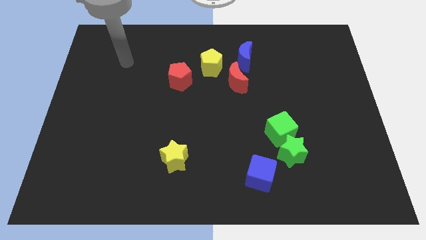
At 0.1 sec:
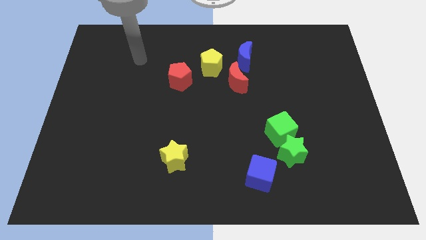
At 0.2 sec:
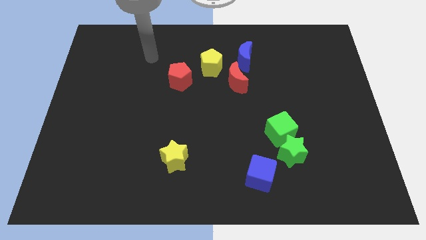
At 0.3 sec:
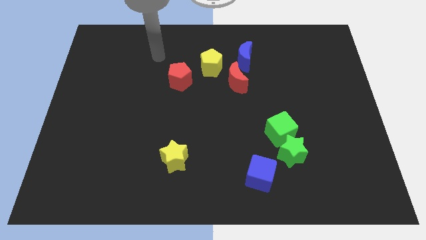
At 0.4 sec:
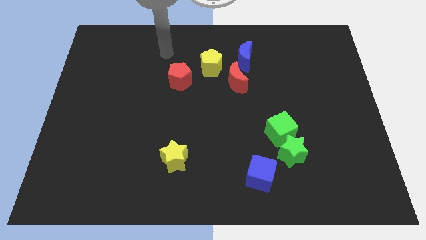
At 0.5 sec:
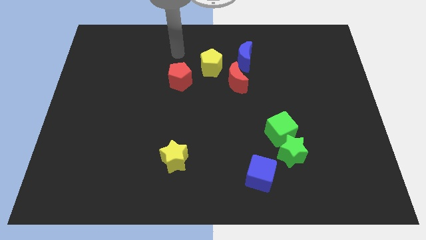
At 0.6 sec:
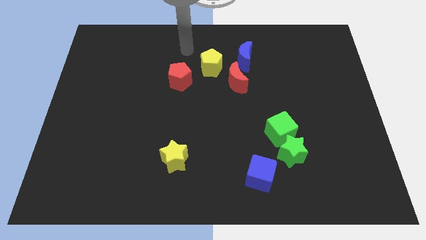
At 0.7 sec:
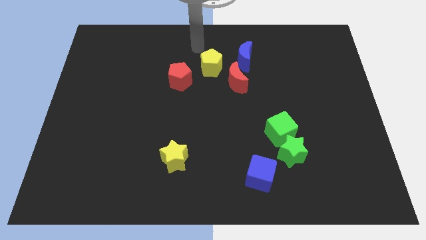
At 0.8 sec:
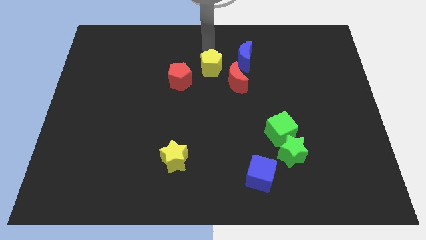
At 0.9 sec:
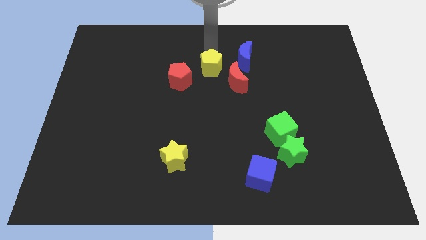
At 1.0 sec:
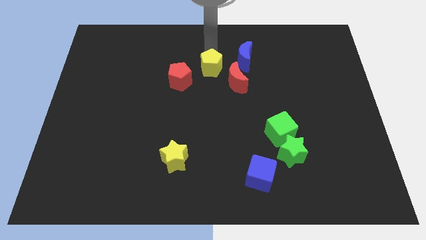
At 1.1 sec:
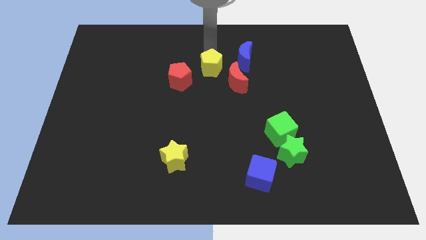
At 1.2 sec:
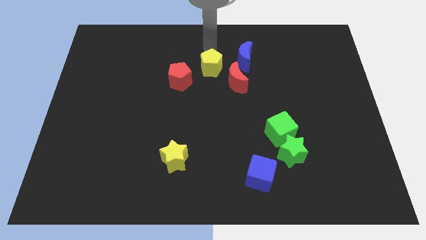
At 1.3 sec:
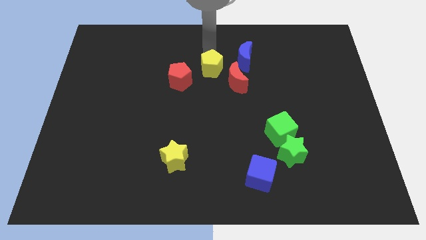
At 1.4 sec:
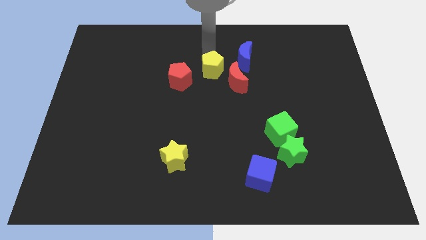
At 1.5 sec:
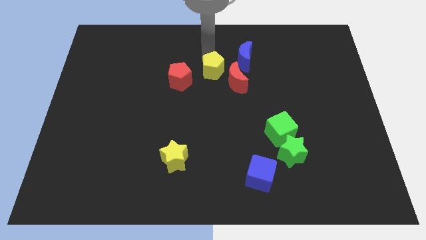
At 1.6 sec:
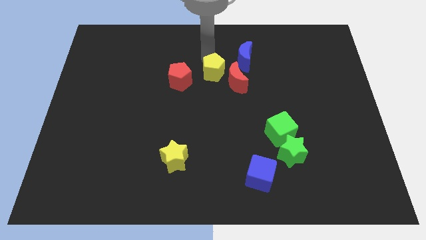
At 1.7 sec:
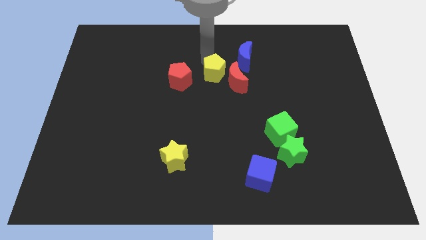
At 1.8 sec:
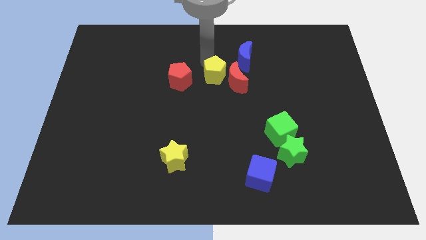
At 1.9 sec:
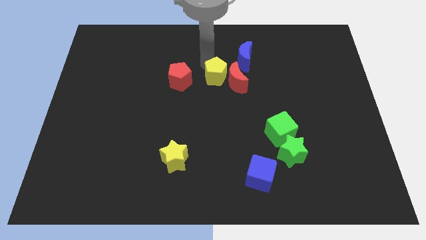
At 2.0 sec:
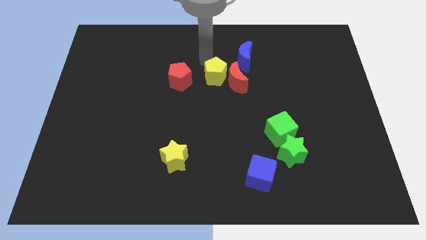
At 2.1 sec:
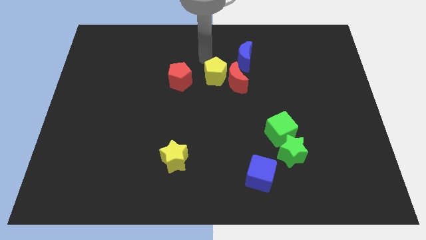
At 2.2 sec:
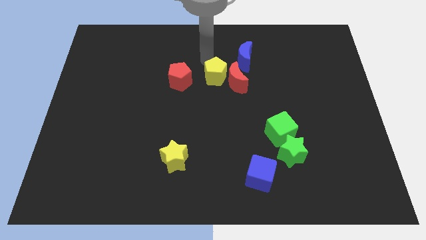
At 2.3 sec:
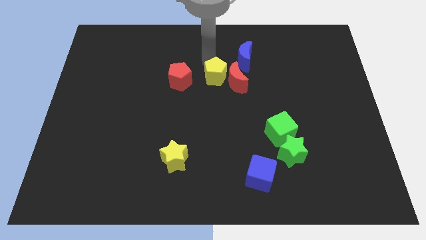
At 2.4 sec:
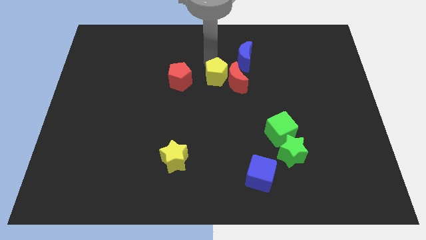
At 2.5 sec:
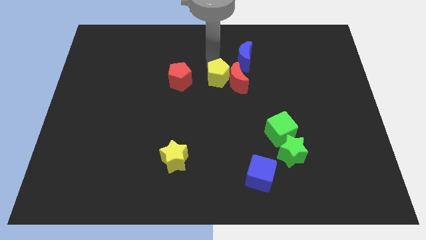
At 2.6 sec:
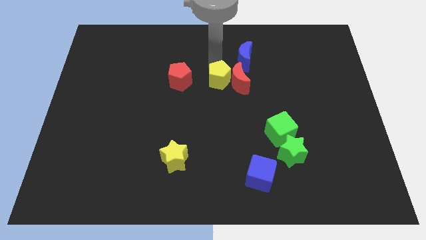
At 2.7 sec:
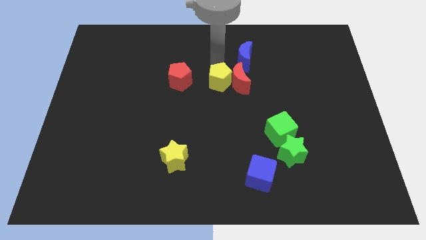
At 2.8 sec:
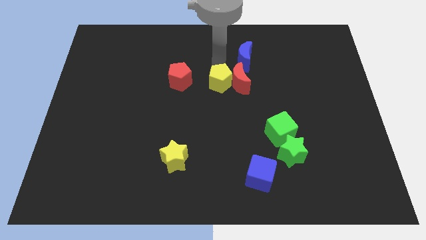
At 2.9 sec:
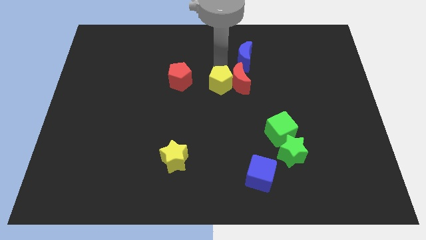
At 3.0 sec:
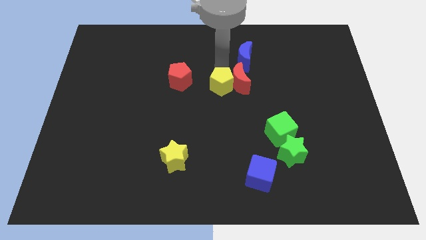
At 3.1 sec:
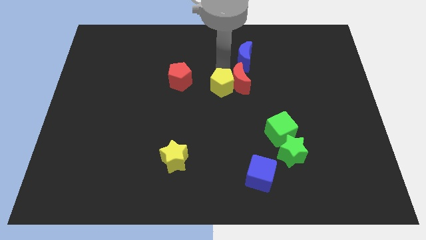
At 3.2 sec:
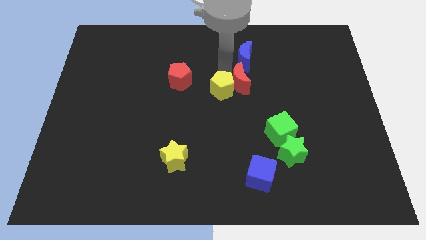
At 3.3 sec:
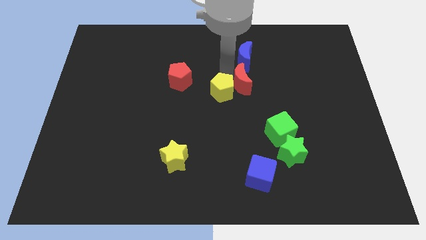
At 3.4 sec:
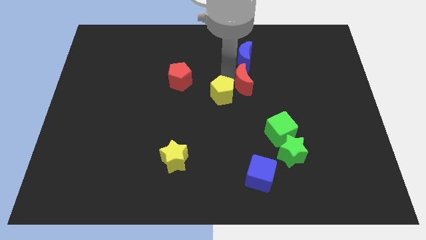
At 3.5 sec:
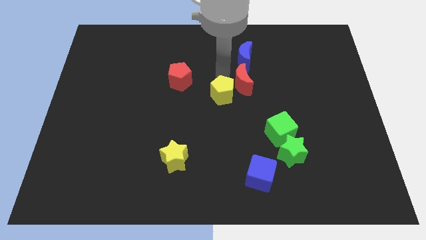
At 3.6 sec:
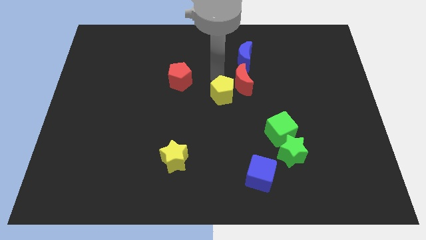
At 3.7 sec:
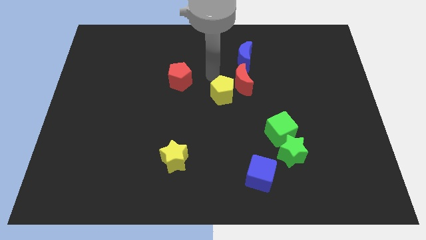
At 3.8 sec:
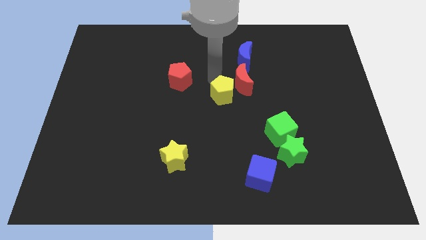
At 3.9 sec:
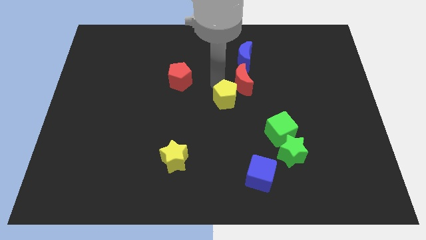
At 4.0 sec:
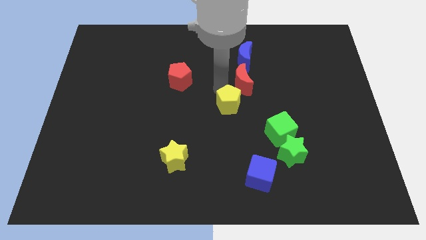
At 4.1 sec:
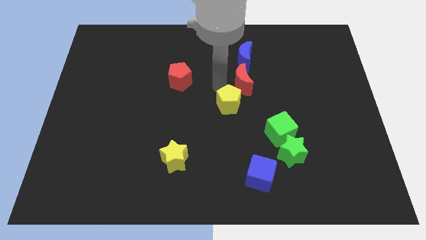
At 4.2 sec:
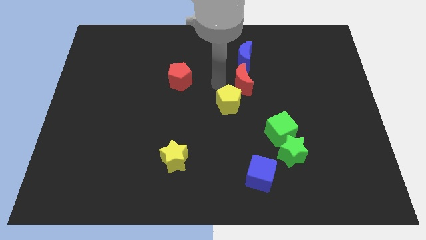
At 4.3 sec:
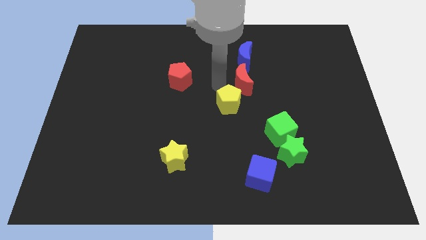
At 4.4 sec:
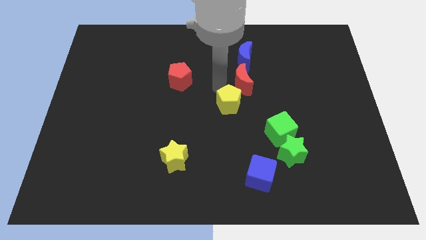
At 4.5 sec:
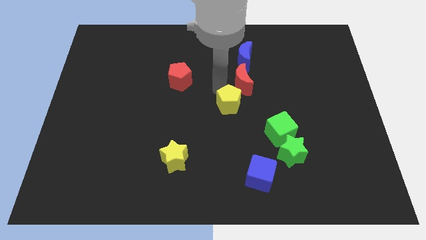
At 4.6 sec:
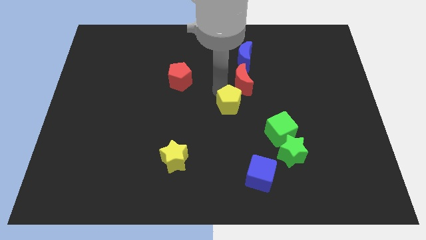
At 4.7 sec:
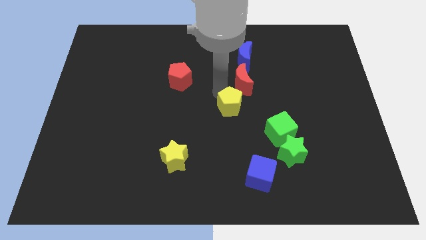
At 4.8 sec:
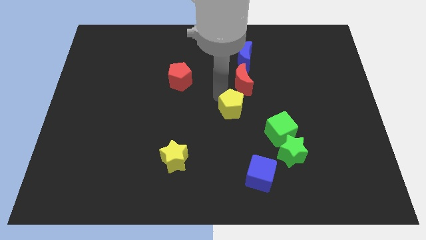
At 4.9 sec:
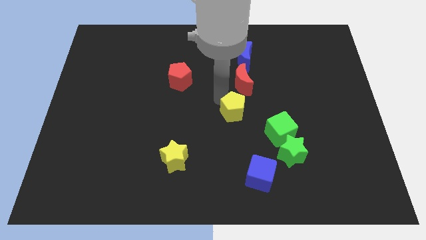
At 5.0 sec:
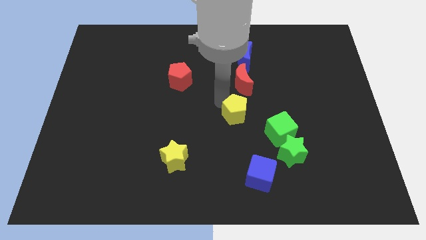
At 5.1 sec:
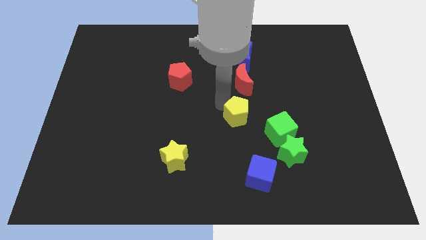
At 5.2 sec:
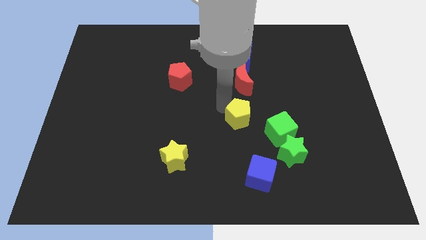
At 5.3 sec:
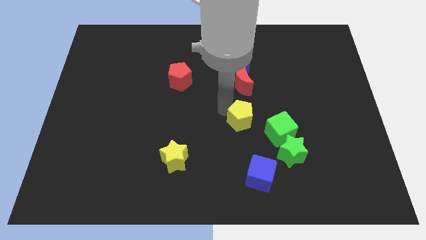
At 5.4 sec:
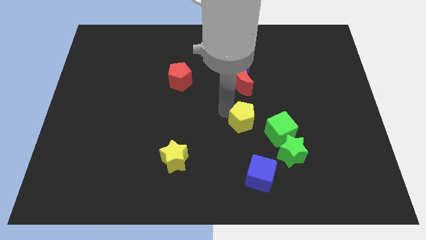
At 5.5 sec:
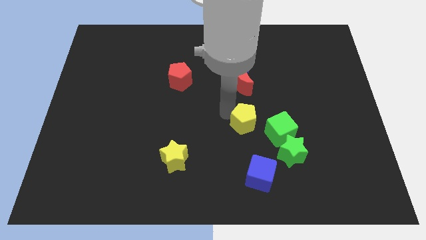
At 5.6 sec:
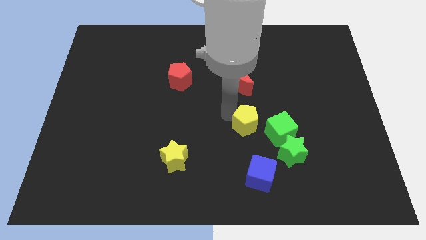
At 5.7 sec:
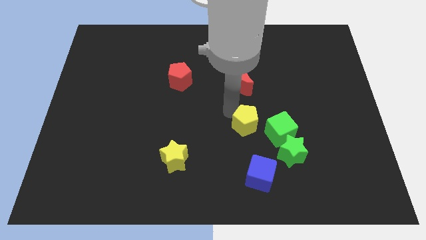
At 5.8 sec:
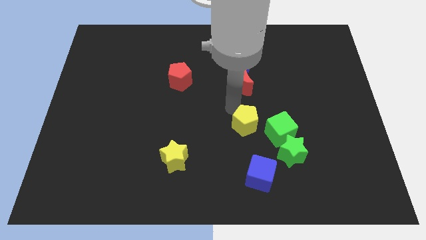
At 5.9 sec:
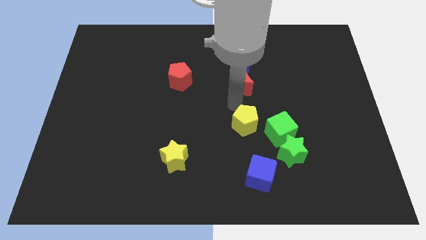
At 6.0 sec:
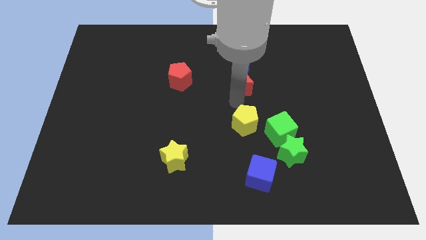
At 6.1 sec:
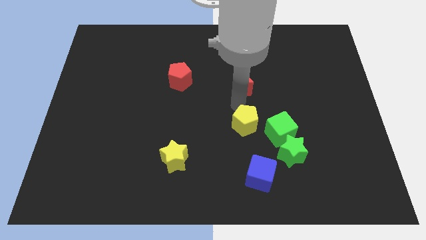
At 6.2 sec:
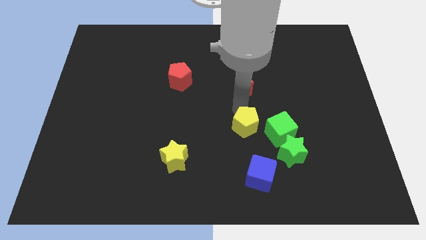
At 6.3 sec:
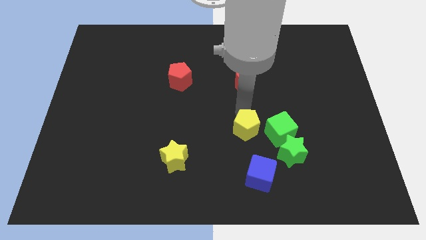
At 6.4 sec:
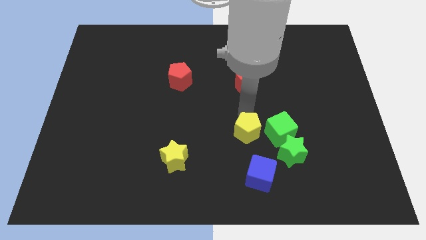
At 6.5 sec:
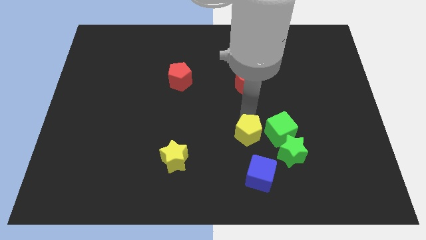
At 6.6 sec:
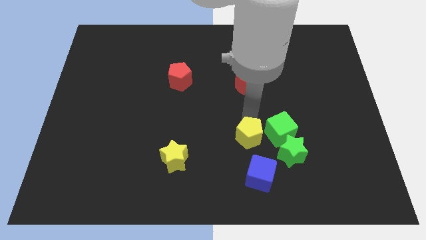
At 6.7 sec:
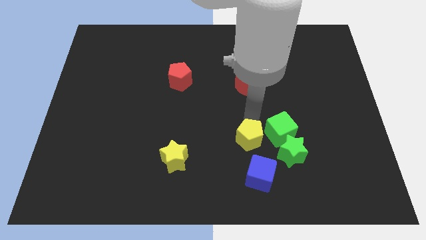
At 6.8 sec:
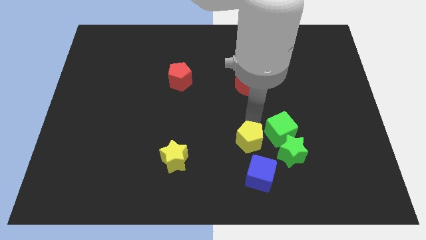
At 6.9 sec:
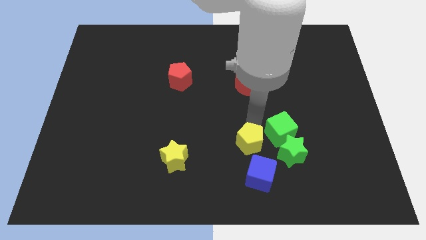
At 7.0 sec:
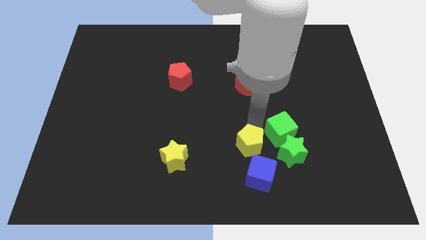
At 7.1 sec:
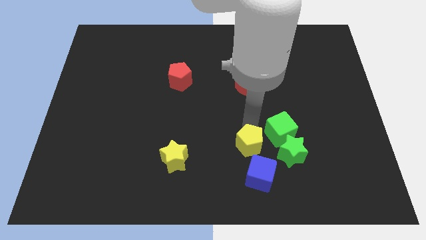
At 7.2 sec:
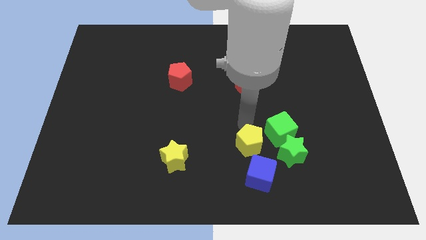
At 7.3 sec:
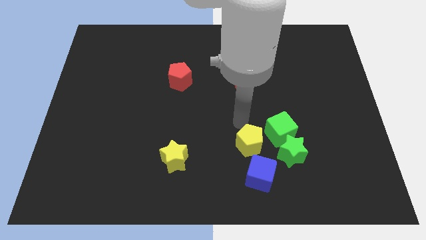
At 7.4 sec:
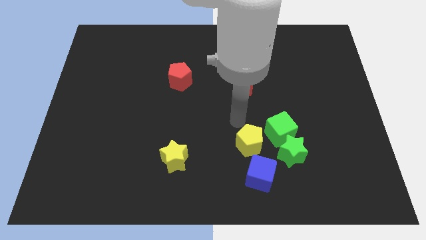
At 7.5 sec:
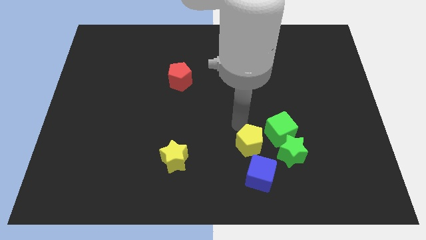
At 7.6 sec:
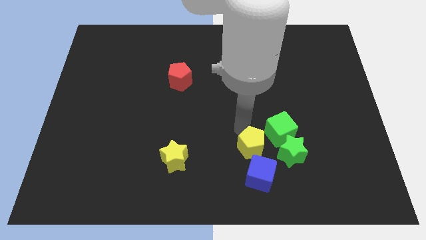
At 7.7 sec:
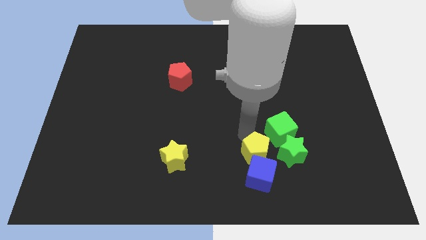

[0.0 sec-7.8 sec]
push the yellow pentagon towards the blue cube

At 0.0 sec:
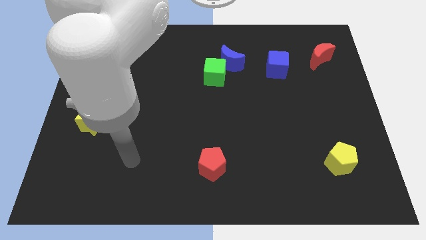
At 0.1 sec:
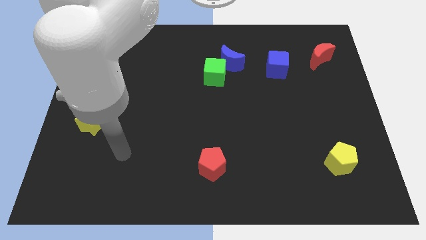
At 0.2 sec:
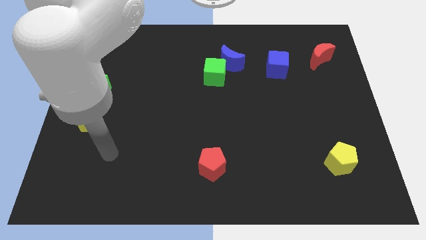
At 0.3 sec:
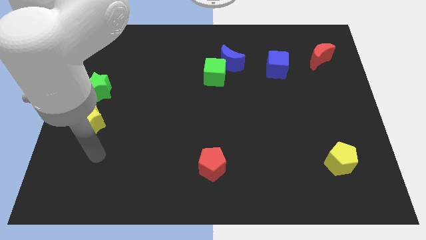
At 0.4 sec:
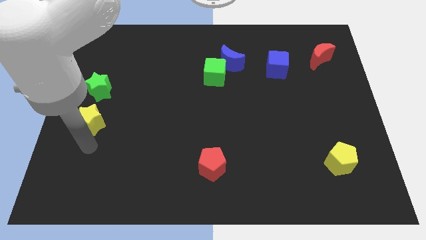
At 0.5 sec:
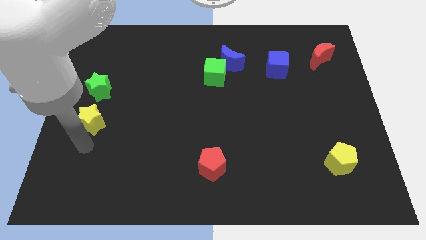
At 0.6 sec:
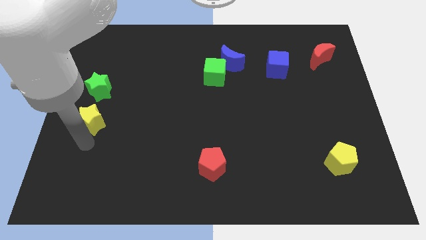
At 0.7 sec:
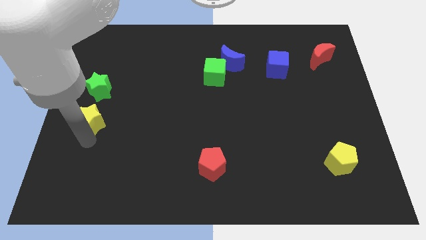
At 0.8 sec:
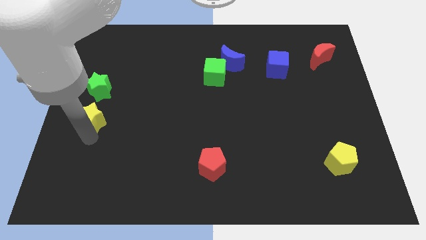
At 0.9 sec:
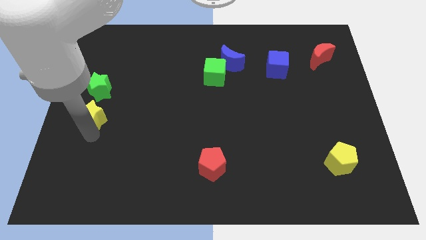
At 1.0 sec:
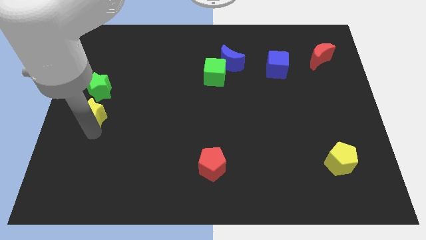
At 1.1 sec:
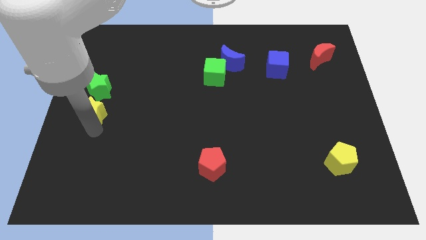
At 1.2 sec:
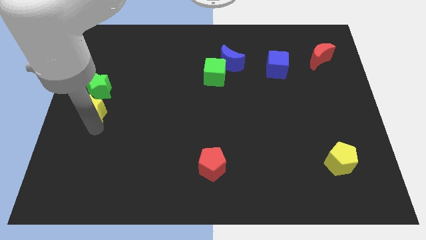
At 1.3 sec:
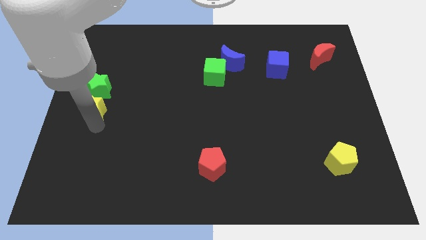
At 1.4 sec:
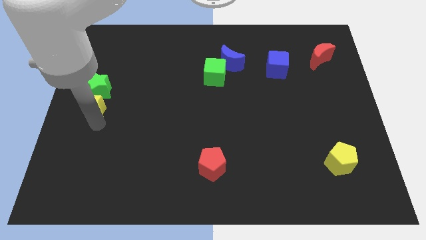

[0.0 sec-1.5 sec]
push the yellow star next to the green star
